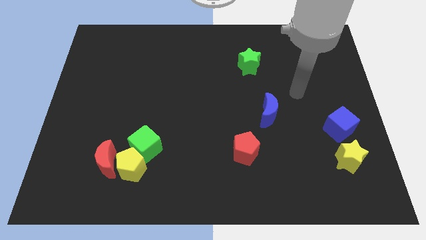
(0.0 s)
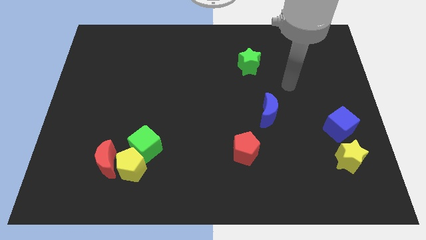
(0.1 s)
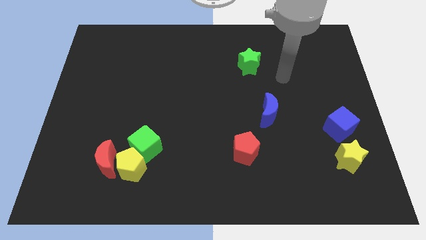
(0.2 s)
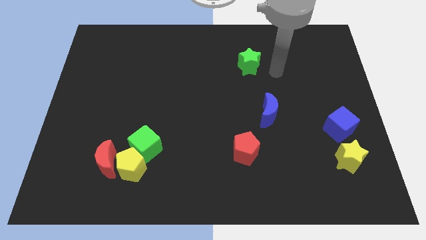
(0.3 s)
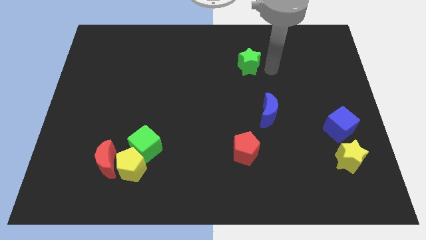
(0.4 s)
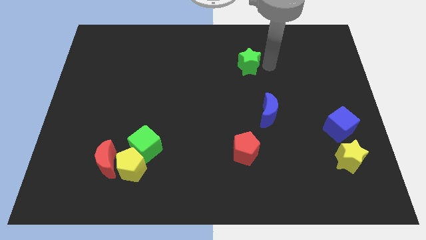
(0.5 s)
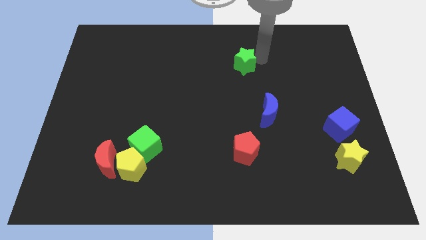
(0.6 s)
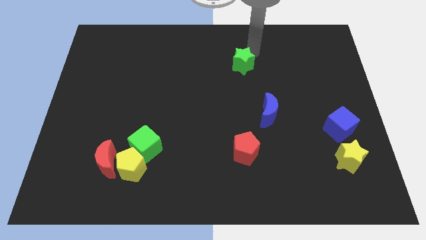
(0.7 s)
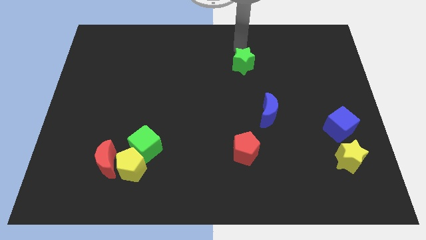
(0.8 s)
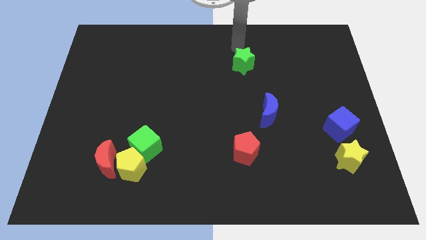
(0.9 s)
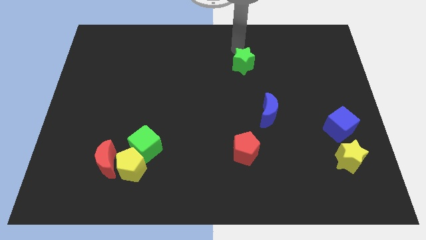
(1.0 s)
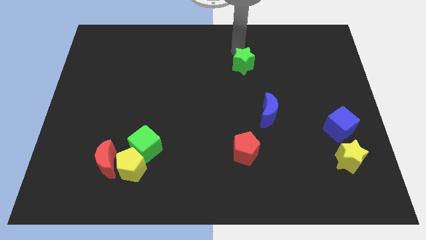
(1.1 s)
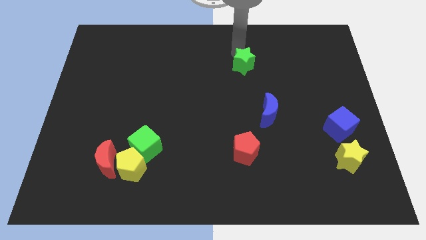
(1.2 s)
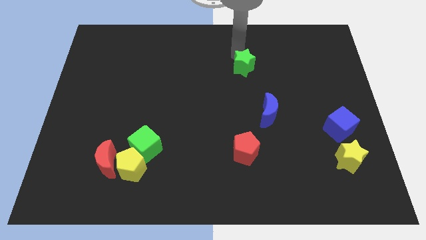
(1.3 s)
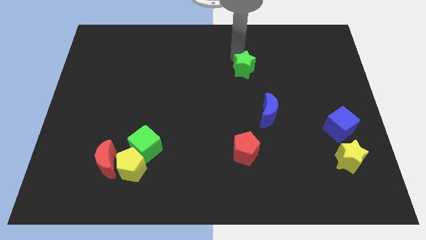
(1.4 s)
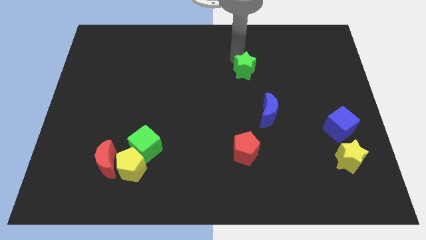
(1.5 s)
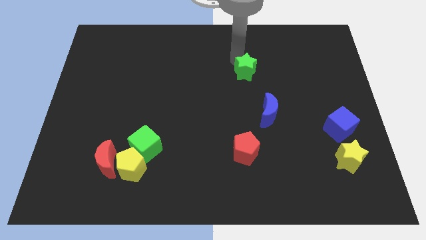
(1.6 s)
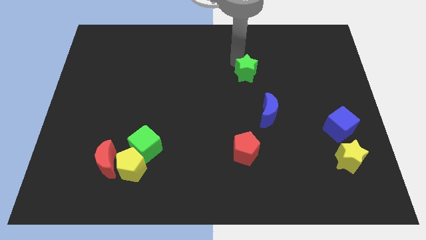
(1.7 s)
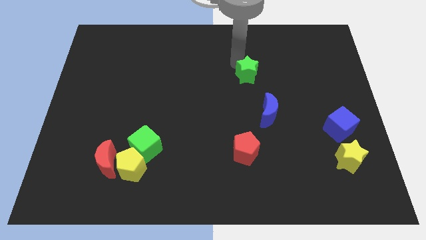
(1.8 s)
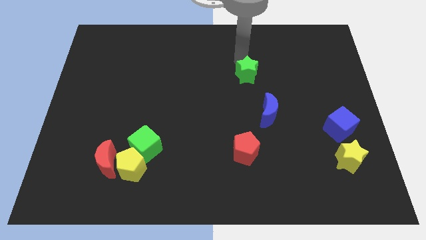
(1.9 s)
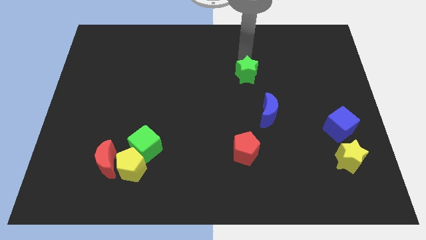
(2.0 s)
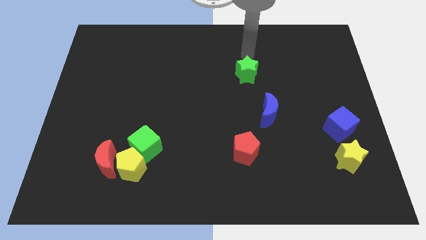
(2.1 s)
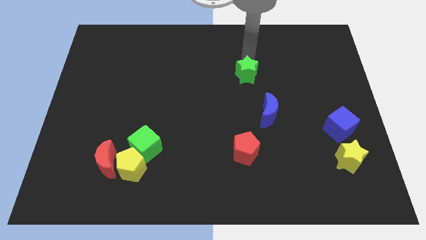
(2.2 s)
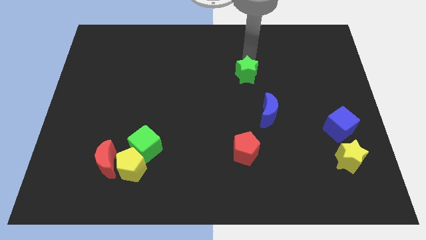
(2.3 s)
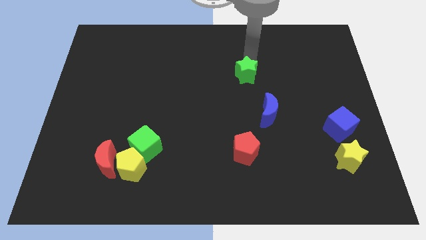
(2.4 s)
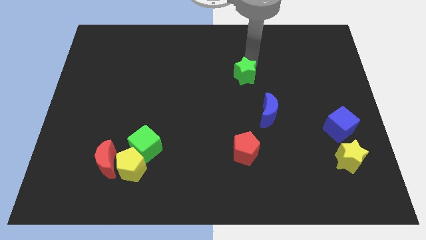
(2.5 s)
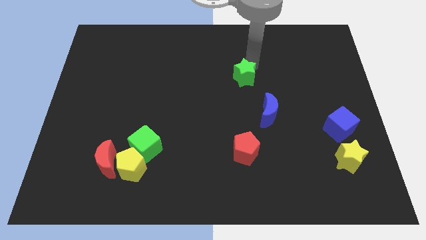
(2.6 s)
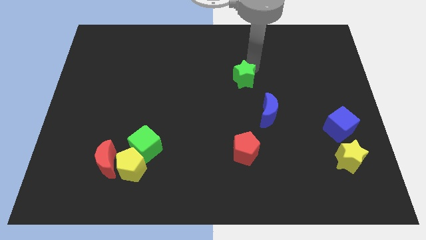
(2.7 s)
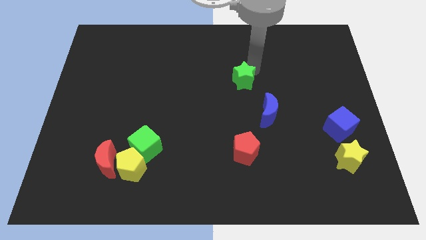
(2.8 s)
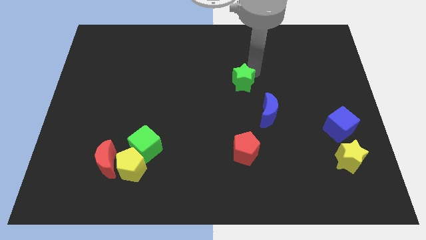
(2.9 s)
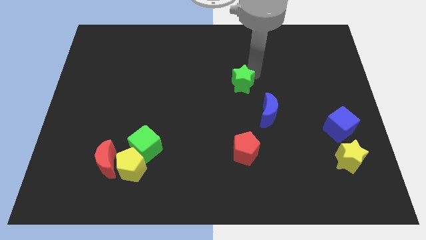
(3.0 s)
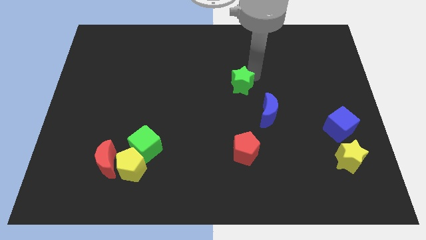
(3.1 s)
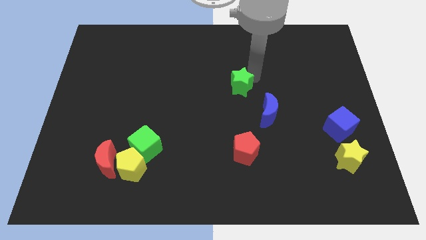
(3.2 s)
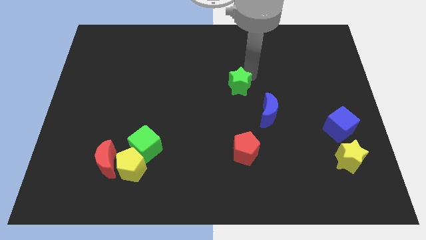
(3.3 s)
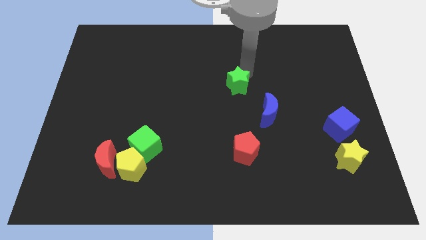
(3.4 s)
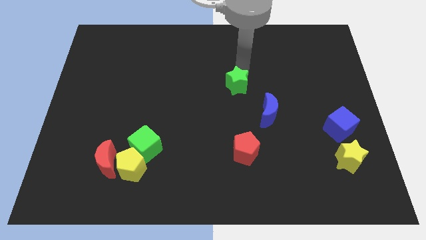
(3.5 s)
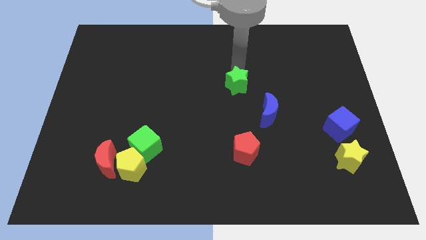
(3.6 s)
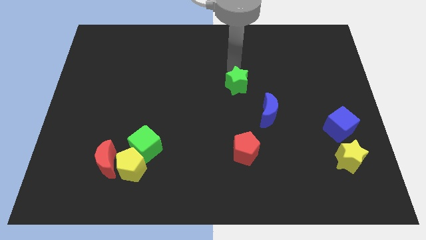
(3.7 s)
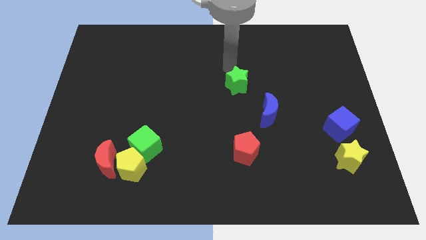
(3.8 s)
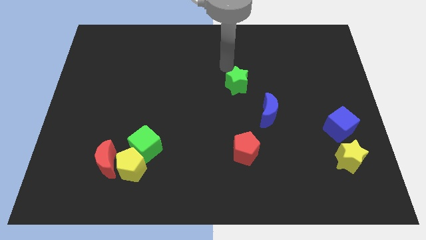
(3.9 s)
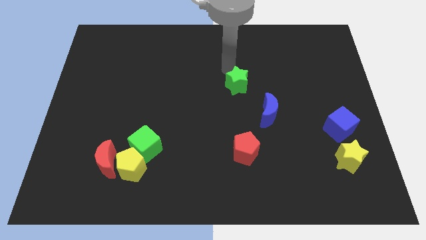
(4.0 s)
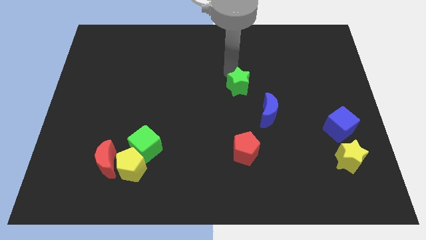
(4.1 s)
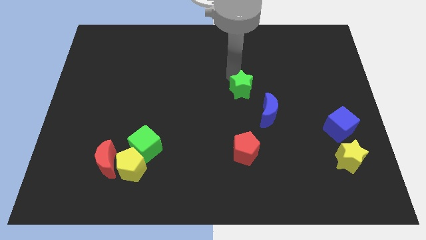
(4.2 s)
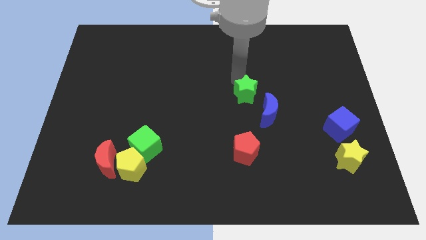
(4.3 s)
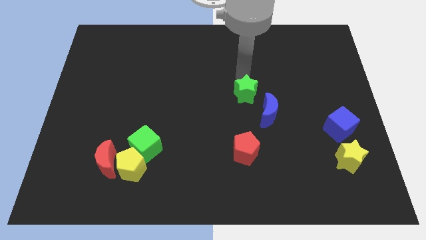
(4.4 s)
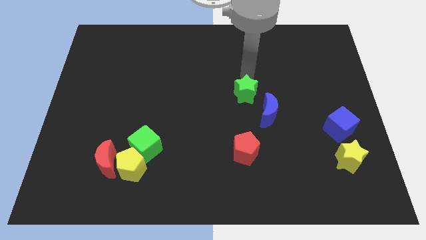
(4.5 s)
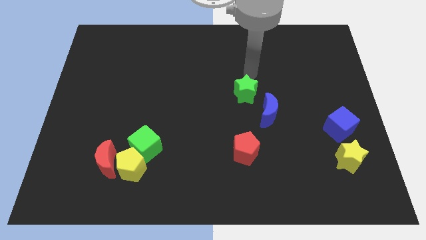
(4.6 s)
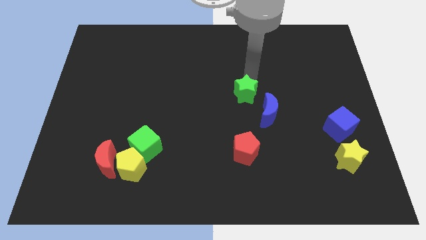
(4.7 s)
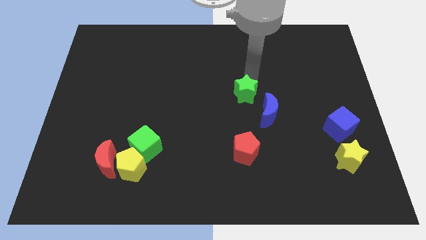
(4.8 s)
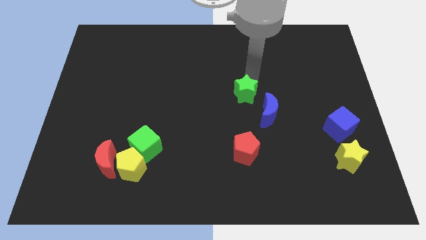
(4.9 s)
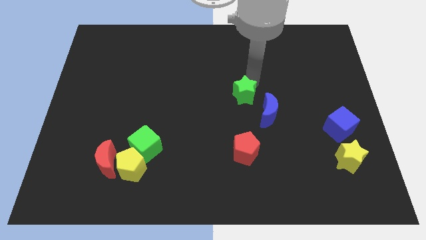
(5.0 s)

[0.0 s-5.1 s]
push the green star above the red pentagon

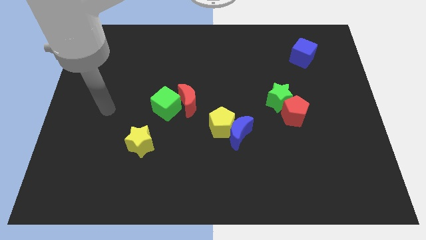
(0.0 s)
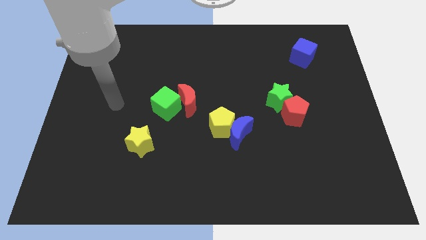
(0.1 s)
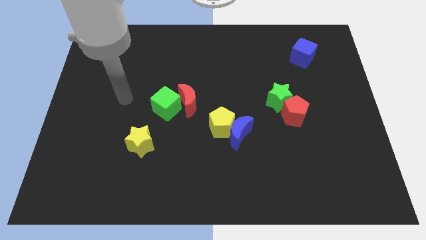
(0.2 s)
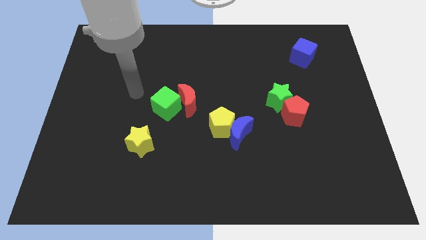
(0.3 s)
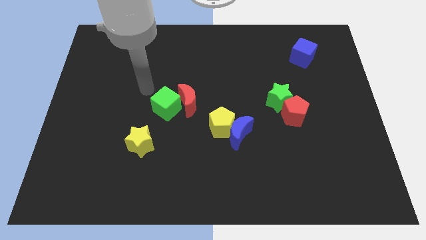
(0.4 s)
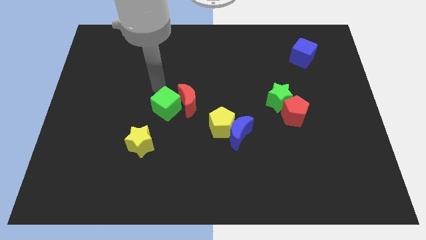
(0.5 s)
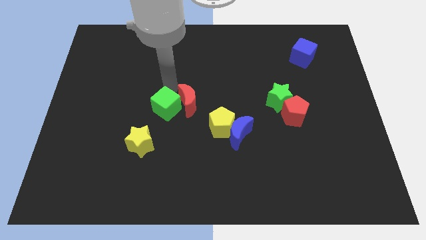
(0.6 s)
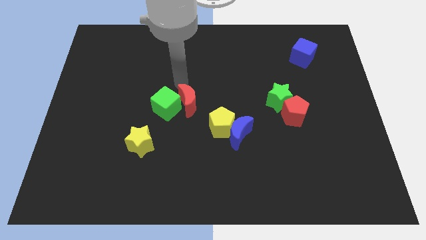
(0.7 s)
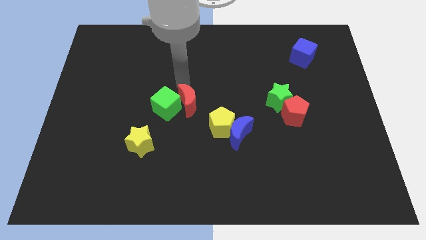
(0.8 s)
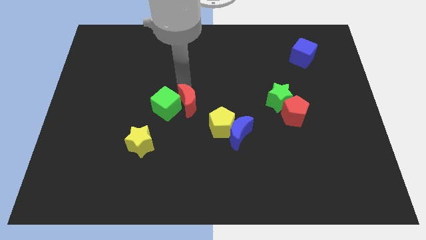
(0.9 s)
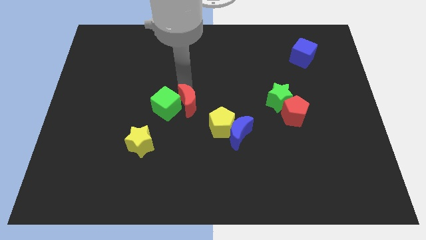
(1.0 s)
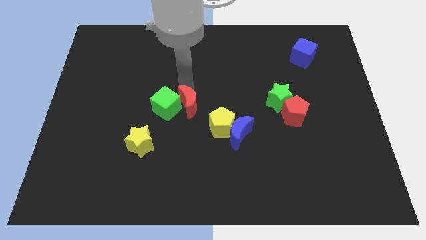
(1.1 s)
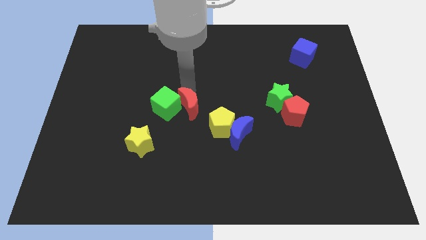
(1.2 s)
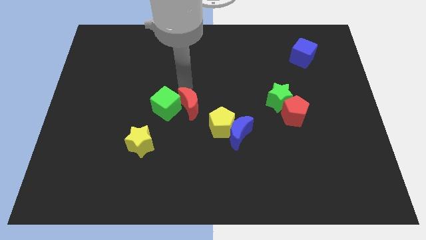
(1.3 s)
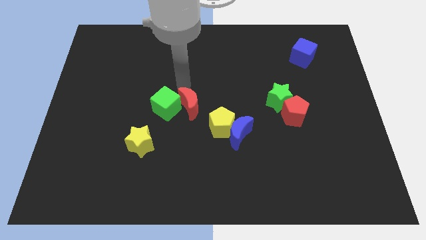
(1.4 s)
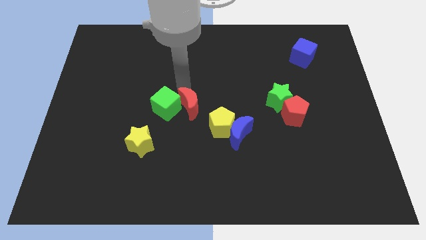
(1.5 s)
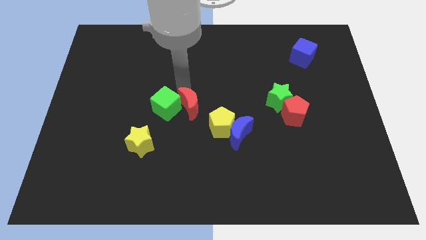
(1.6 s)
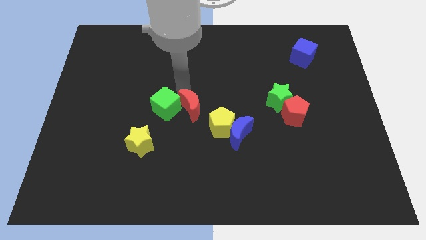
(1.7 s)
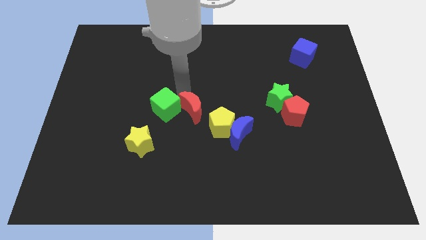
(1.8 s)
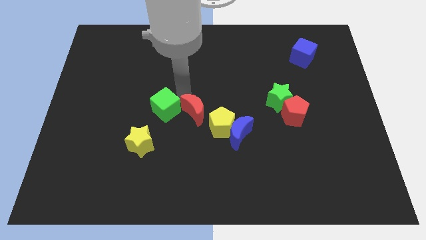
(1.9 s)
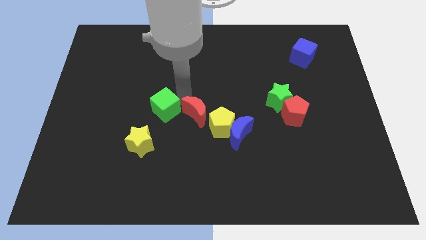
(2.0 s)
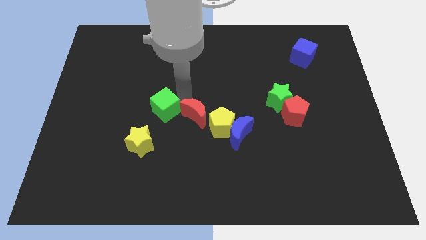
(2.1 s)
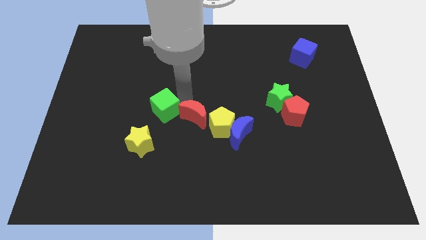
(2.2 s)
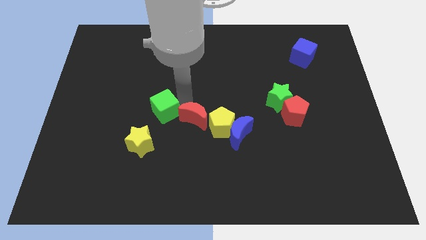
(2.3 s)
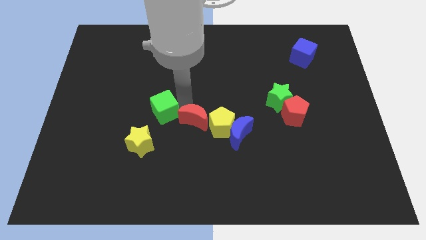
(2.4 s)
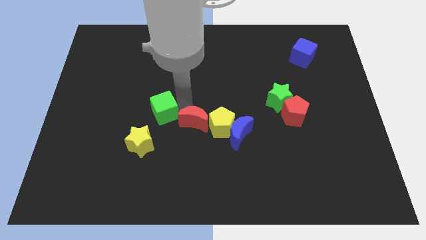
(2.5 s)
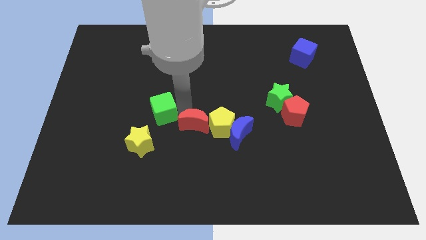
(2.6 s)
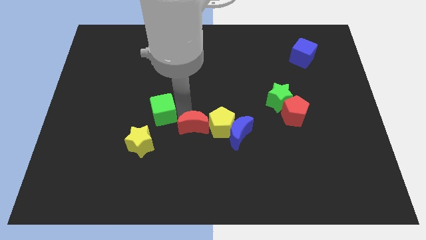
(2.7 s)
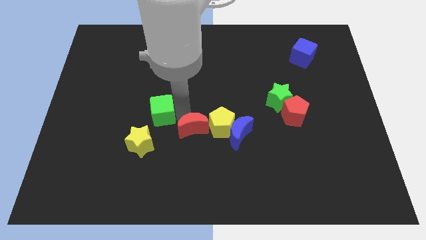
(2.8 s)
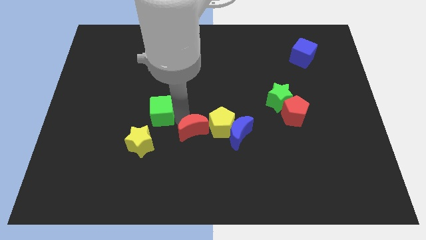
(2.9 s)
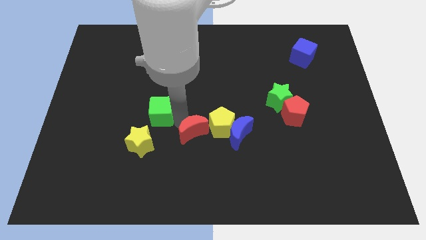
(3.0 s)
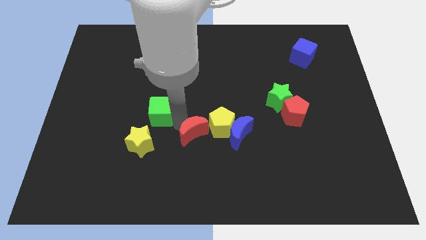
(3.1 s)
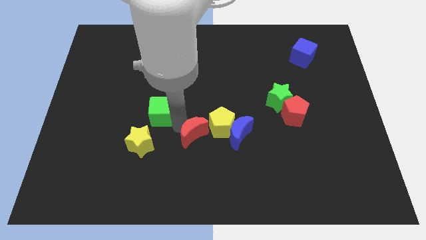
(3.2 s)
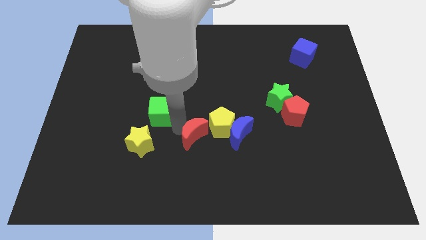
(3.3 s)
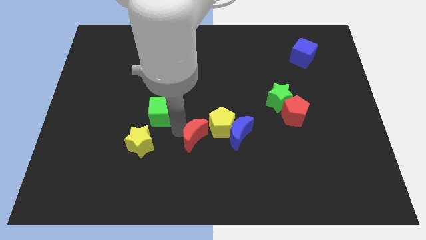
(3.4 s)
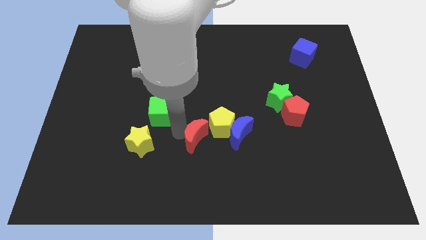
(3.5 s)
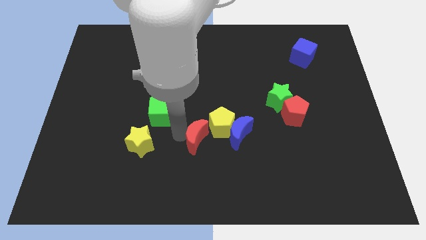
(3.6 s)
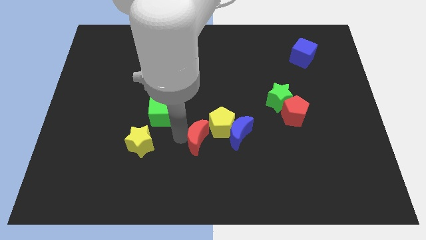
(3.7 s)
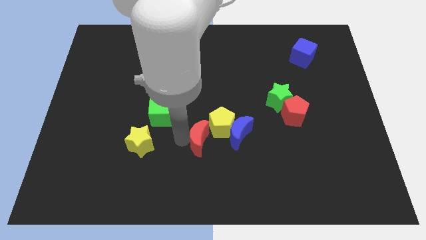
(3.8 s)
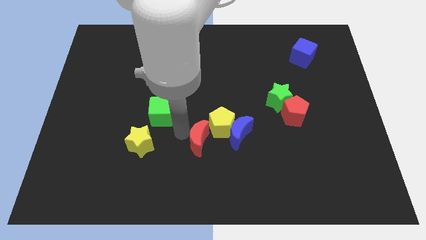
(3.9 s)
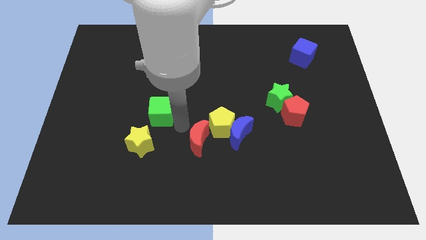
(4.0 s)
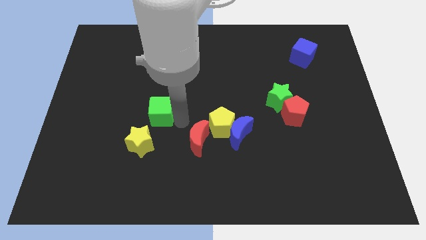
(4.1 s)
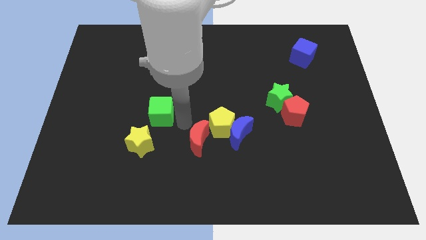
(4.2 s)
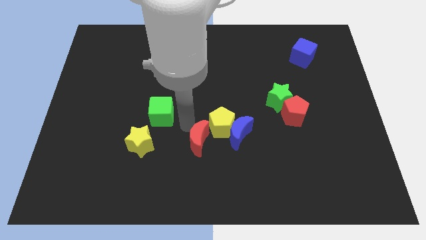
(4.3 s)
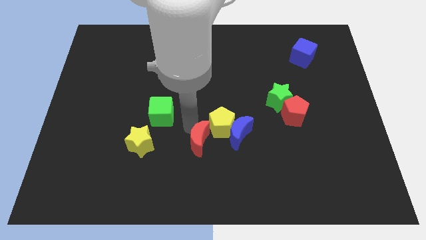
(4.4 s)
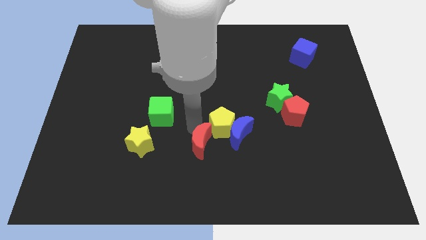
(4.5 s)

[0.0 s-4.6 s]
push the red moon below the yellow pentagon
